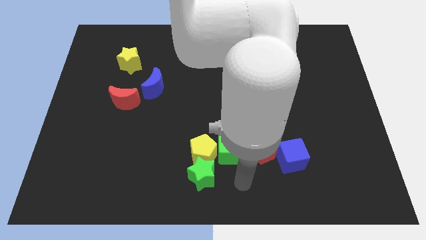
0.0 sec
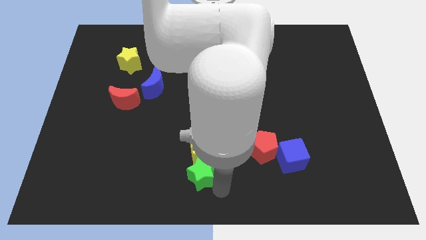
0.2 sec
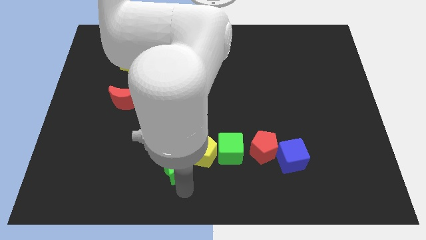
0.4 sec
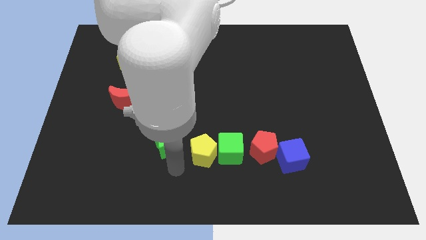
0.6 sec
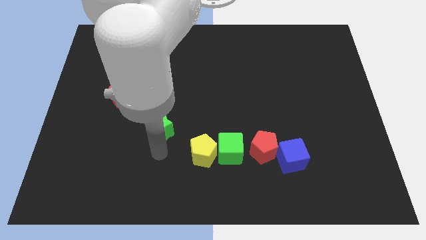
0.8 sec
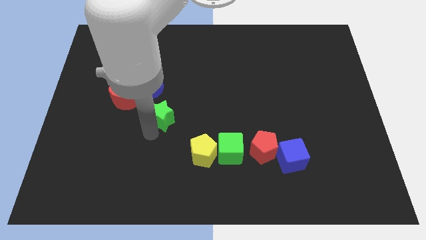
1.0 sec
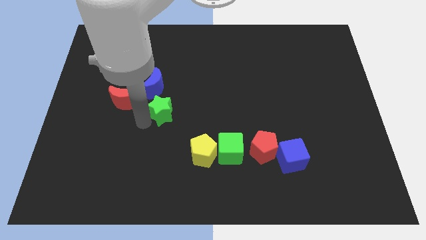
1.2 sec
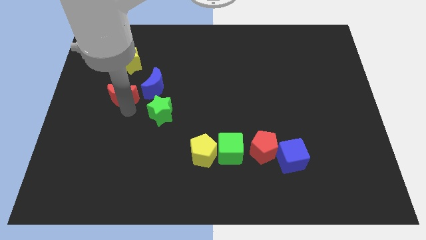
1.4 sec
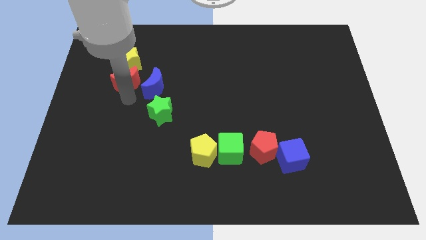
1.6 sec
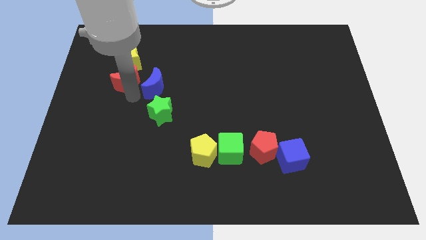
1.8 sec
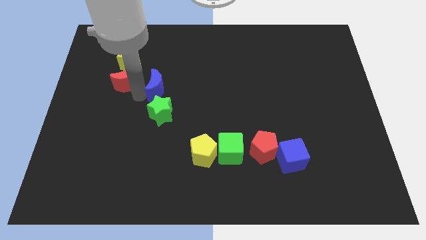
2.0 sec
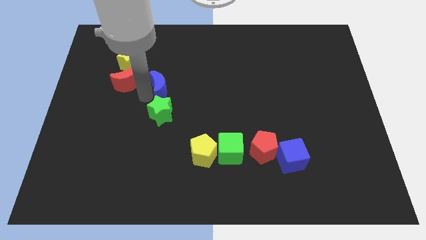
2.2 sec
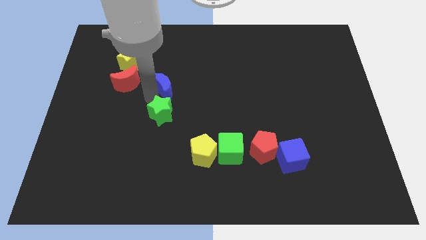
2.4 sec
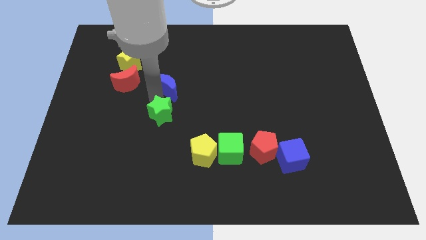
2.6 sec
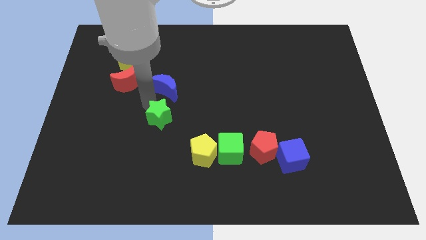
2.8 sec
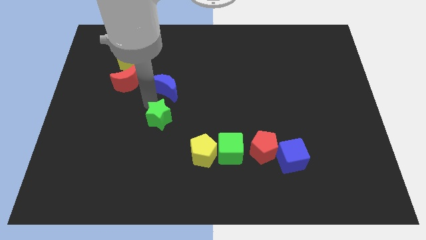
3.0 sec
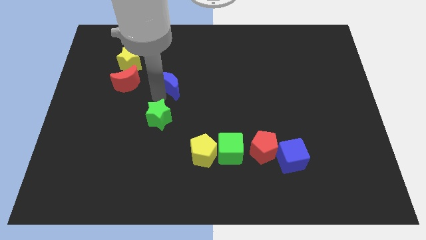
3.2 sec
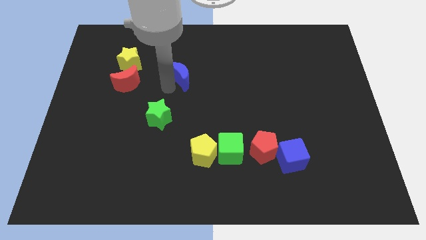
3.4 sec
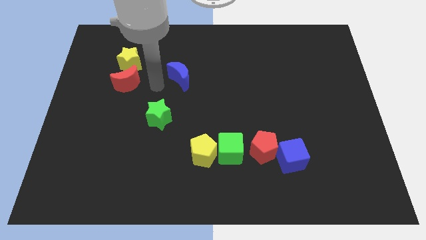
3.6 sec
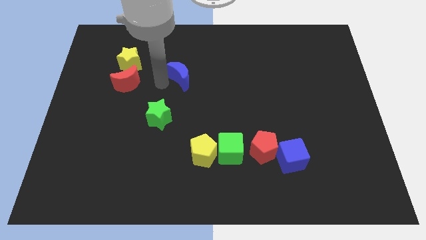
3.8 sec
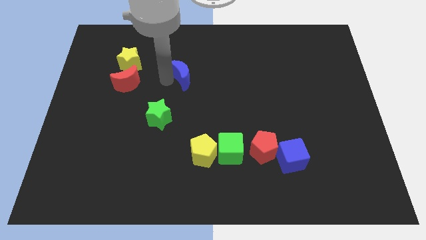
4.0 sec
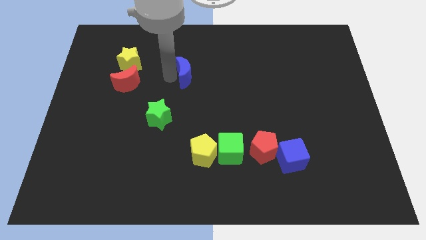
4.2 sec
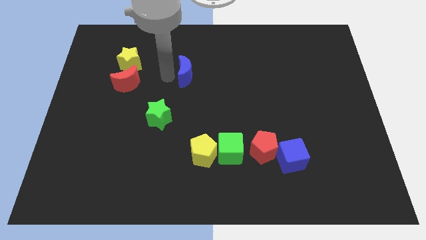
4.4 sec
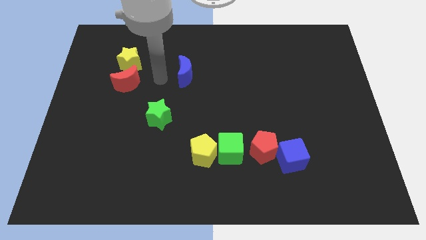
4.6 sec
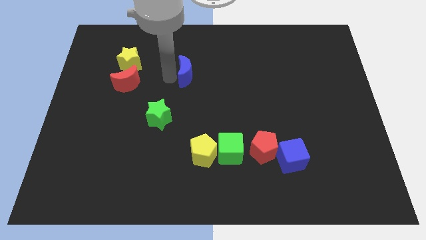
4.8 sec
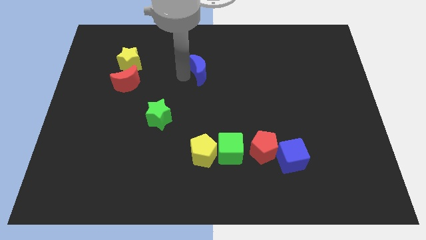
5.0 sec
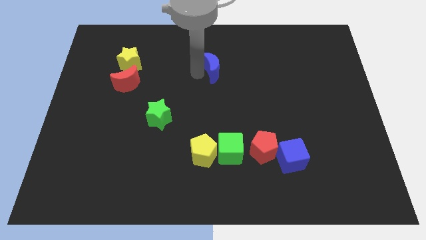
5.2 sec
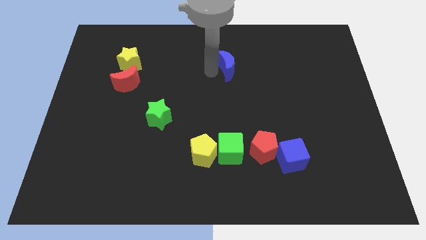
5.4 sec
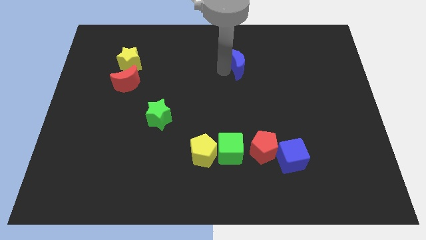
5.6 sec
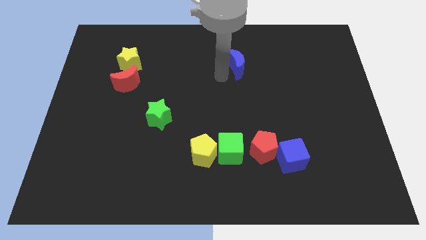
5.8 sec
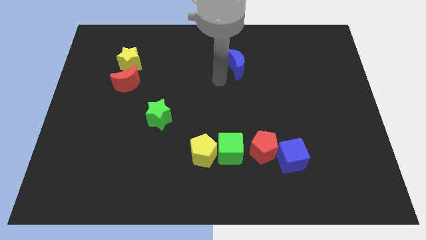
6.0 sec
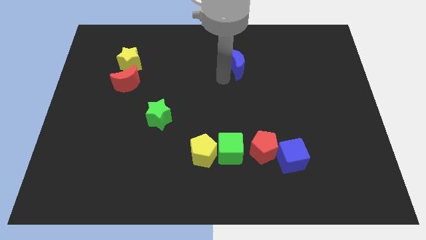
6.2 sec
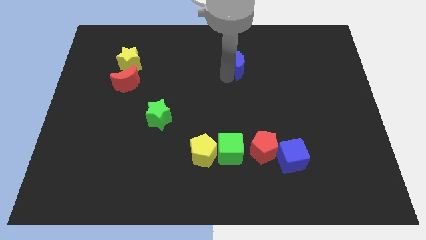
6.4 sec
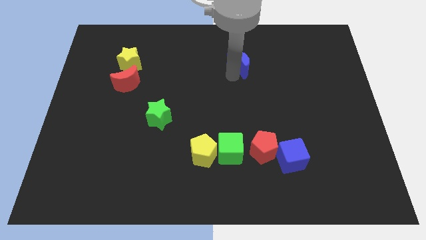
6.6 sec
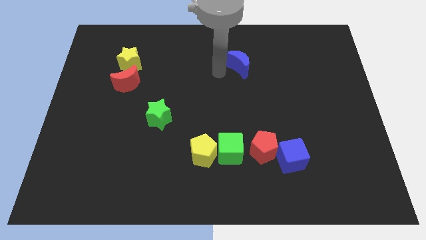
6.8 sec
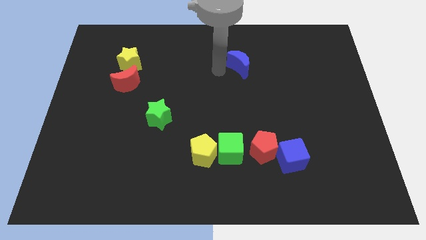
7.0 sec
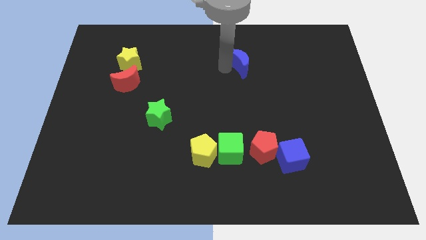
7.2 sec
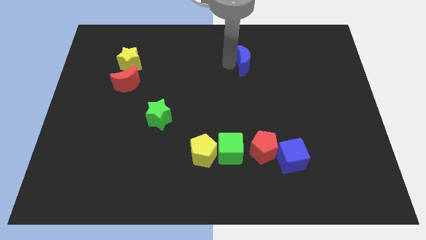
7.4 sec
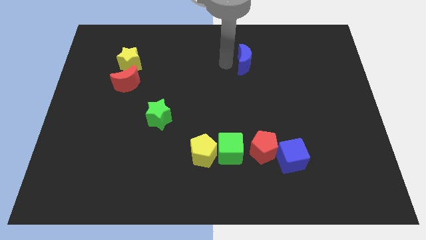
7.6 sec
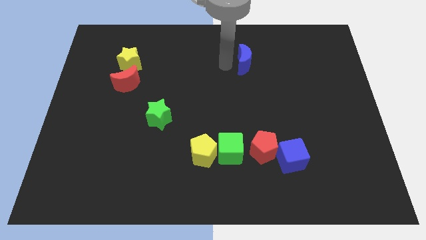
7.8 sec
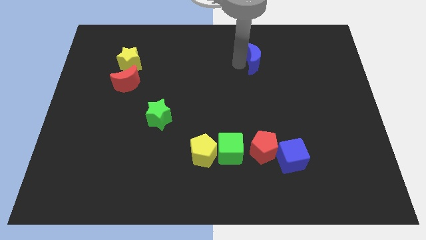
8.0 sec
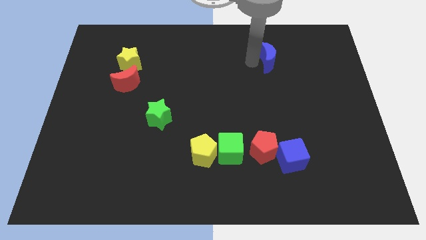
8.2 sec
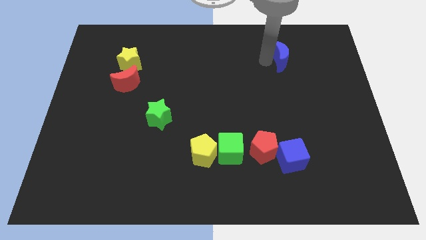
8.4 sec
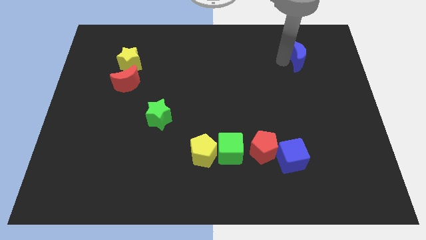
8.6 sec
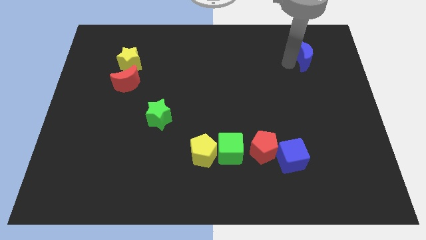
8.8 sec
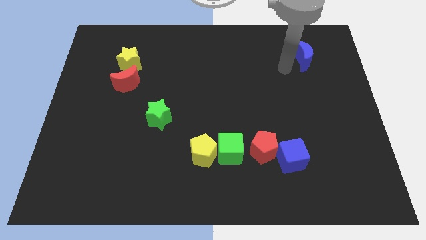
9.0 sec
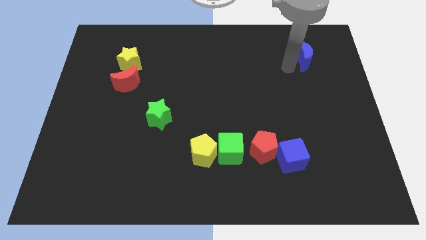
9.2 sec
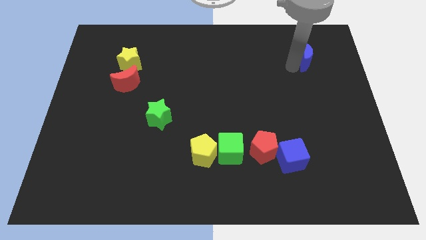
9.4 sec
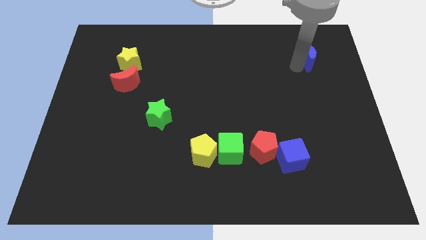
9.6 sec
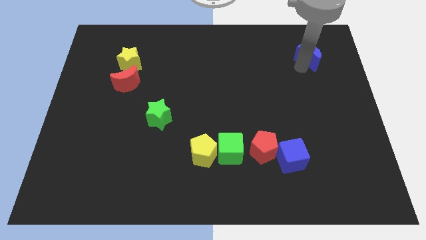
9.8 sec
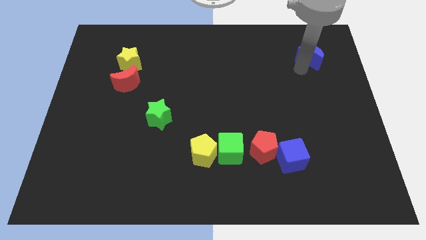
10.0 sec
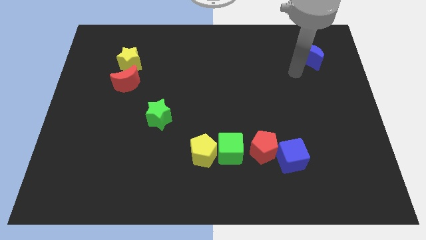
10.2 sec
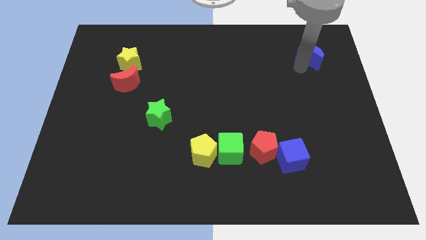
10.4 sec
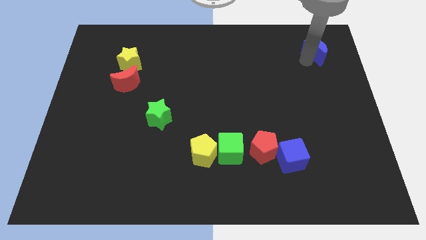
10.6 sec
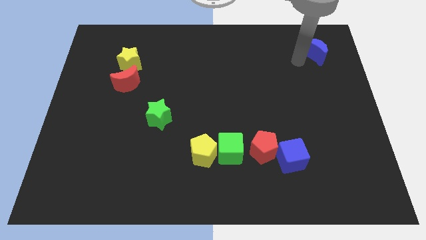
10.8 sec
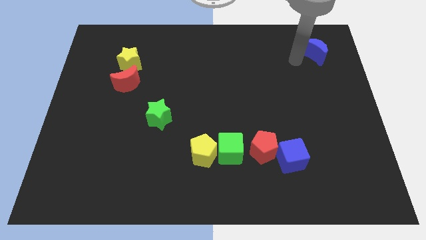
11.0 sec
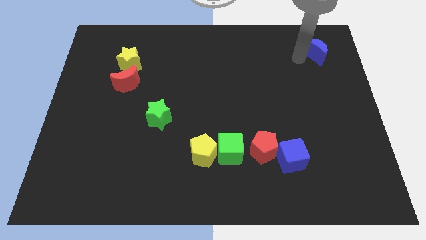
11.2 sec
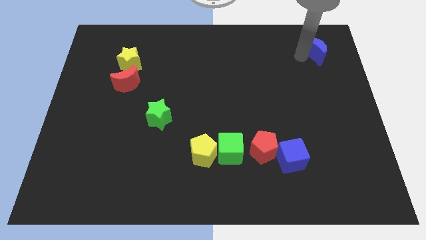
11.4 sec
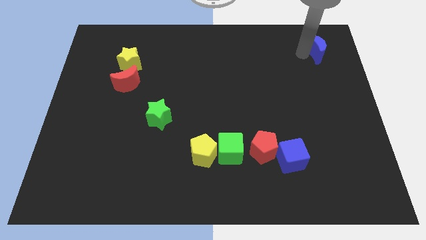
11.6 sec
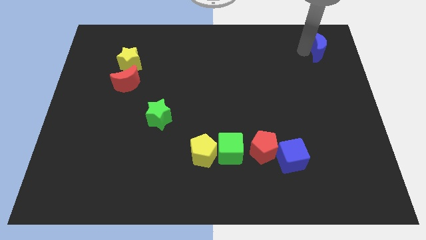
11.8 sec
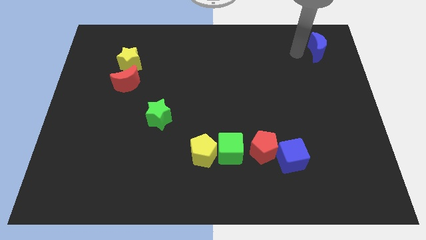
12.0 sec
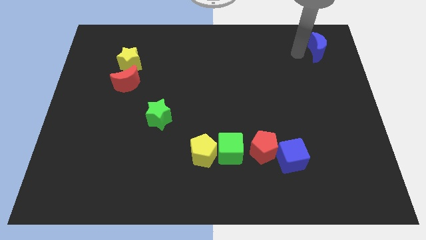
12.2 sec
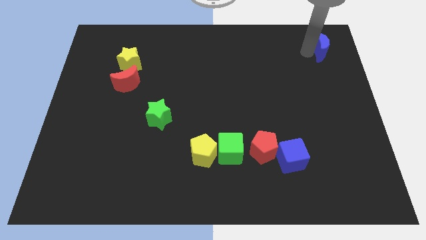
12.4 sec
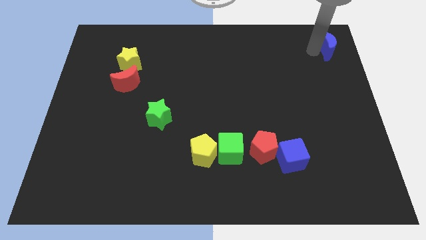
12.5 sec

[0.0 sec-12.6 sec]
put the blue moon to the top right
